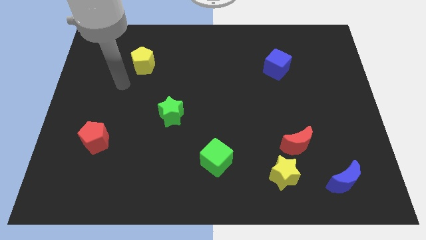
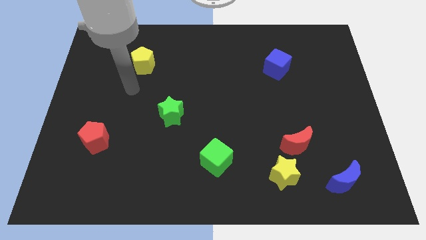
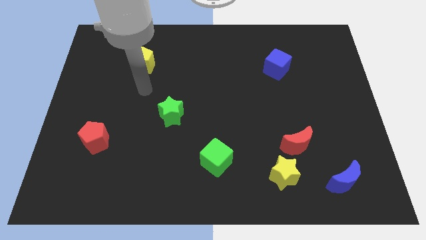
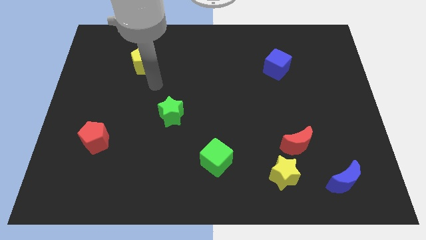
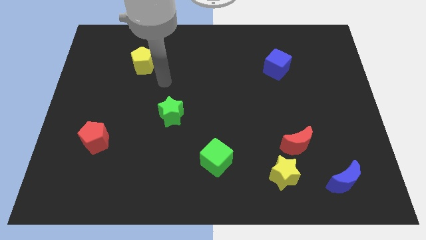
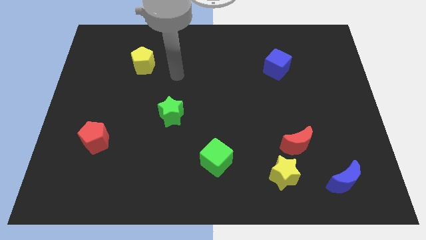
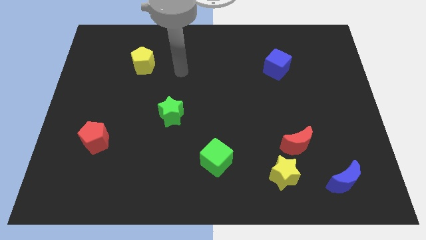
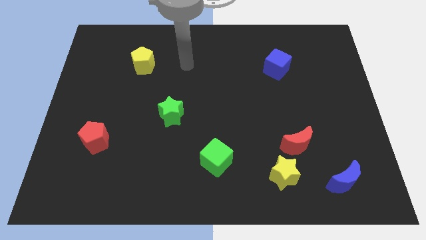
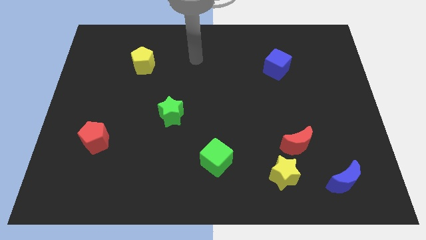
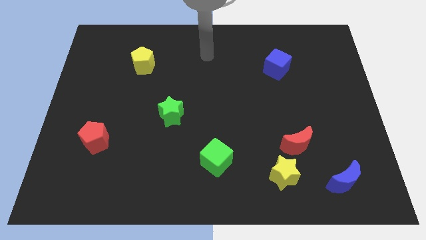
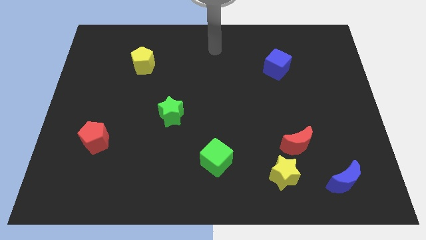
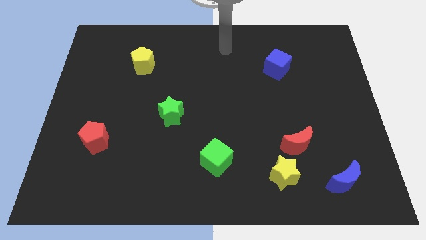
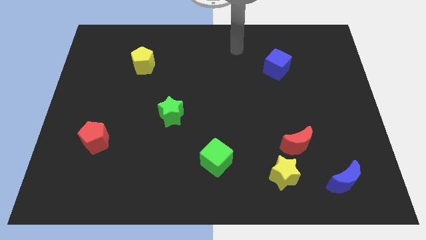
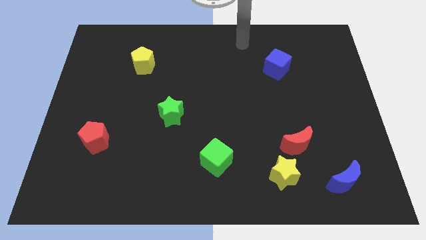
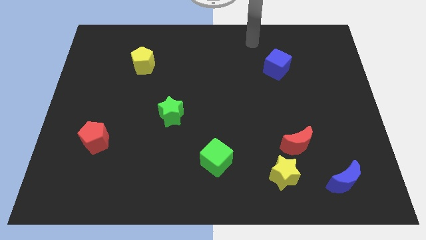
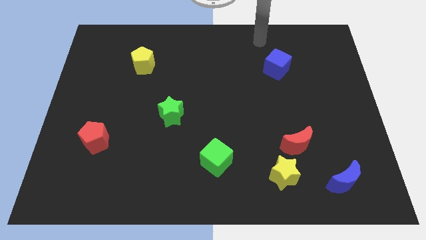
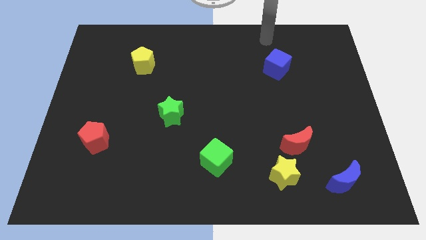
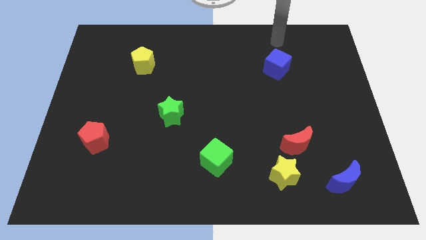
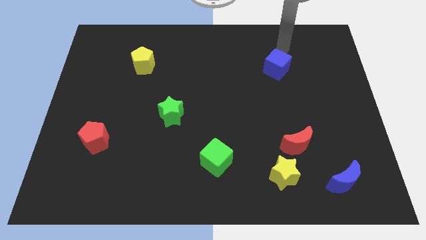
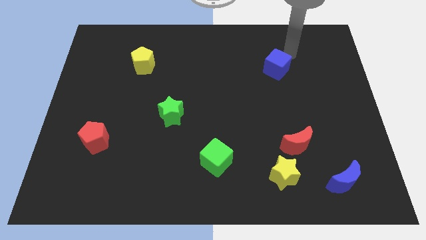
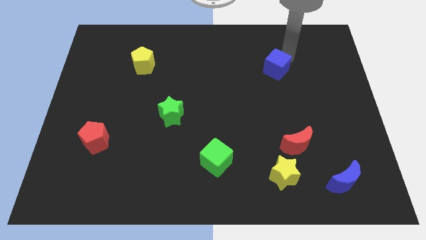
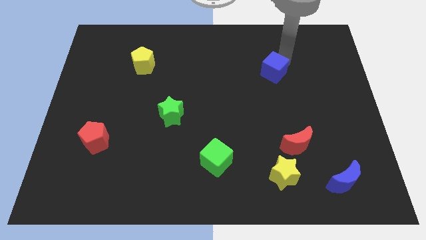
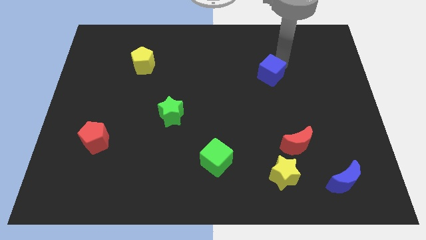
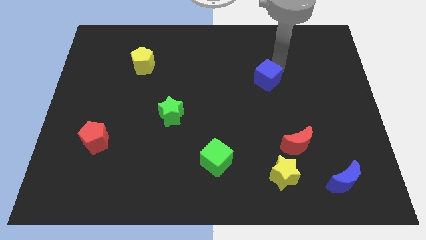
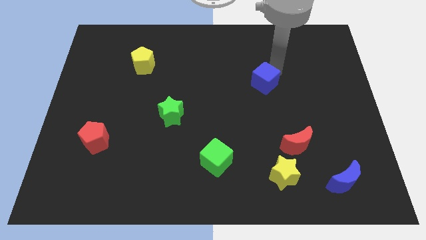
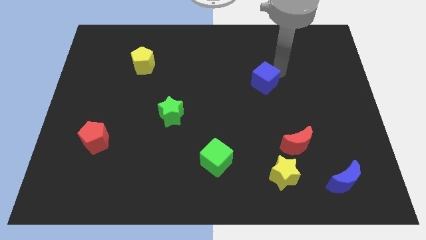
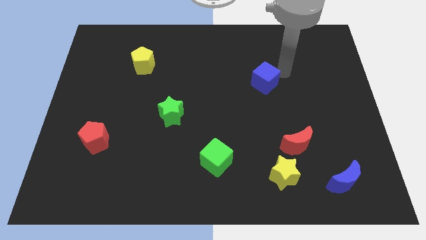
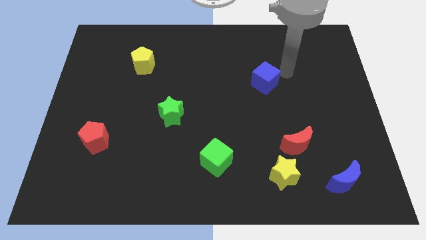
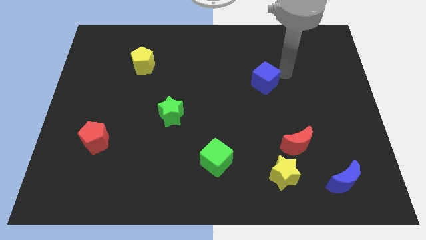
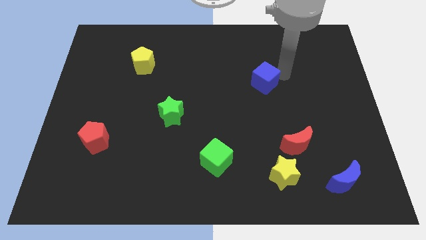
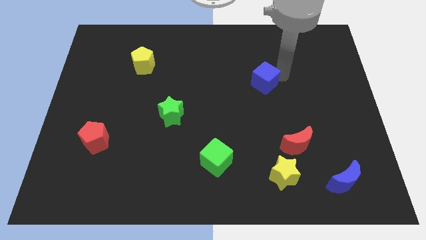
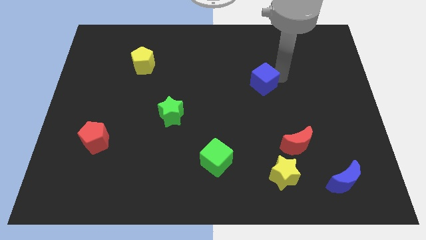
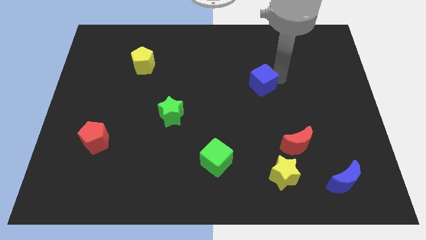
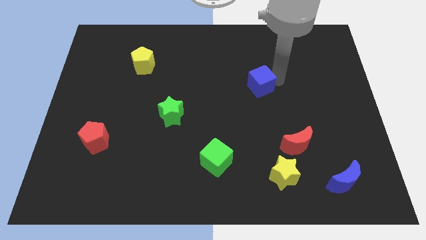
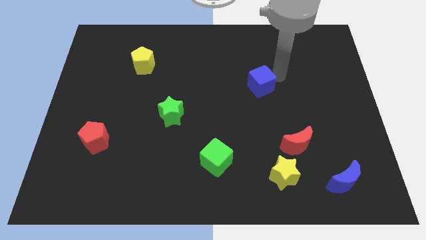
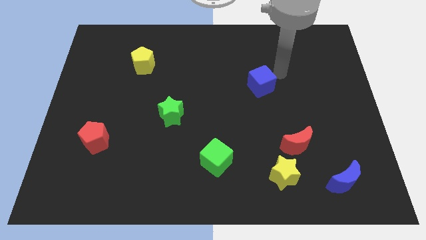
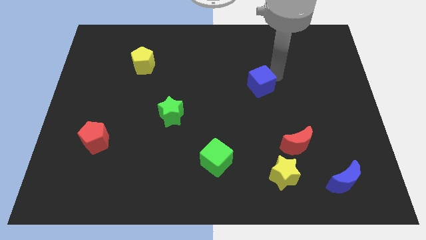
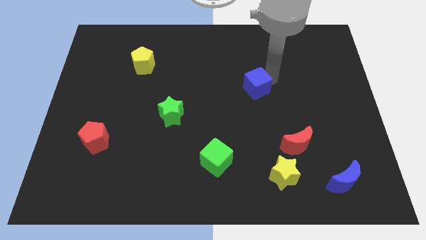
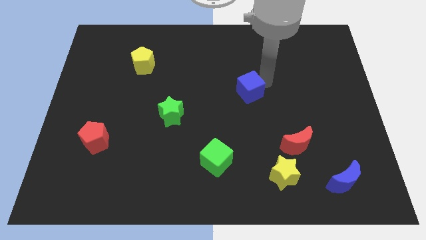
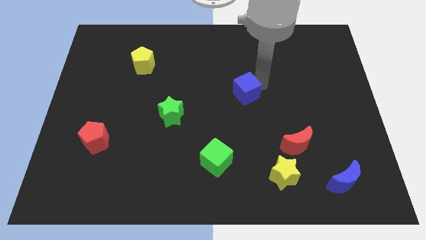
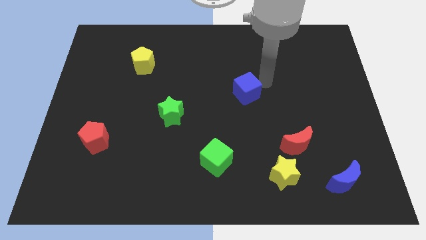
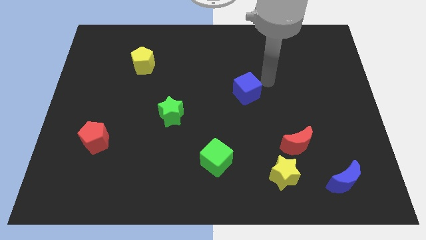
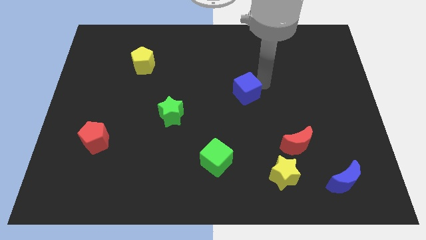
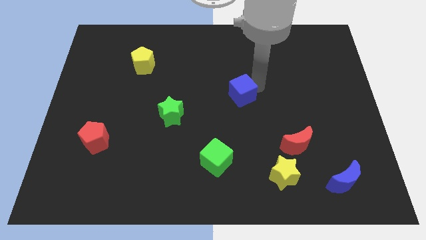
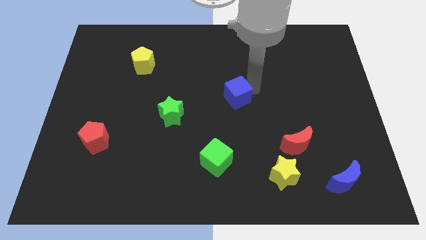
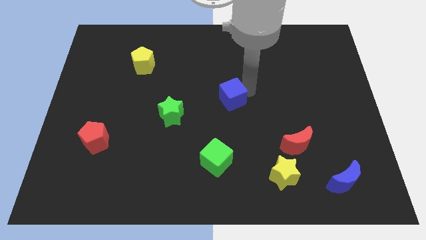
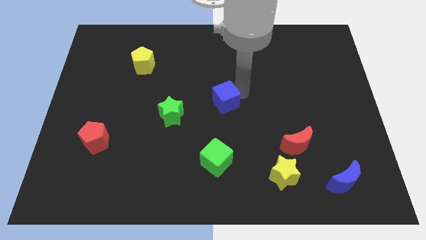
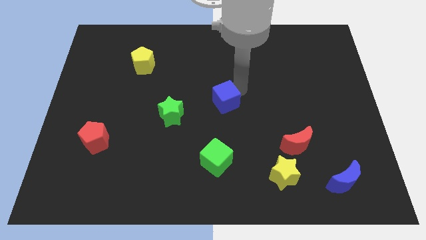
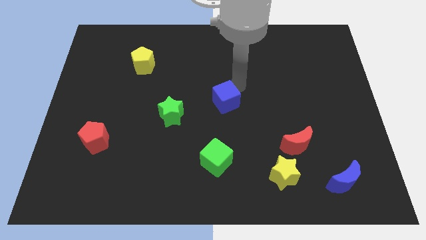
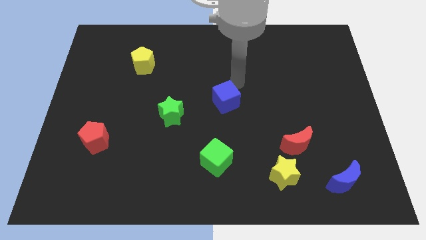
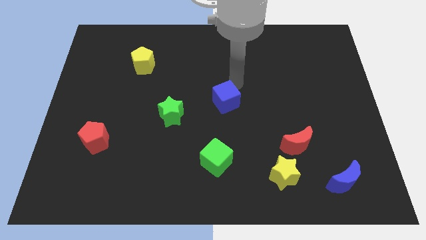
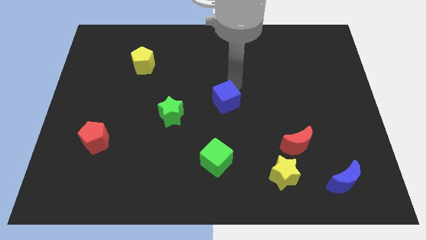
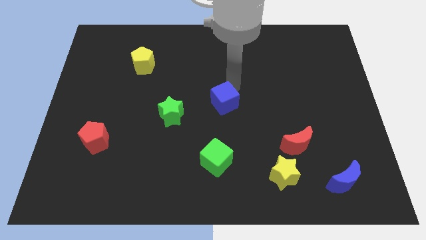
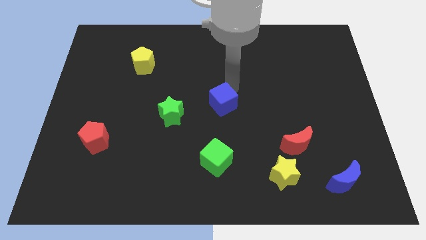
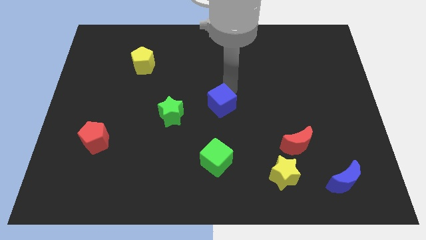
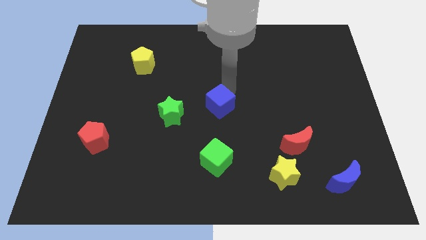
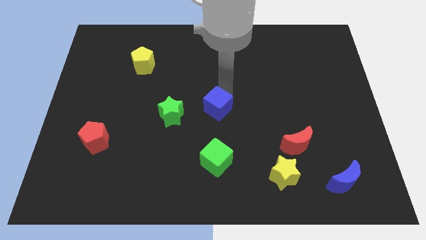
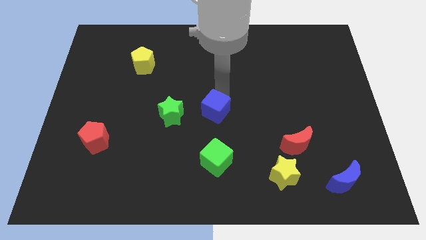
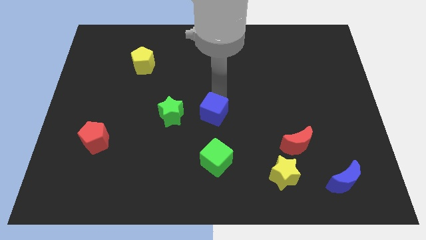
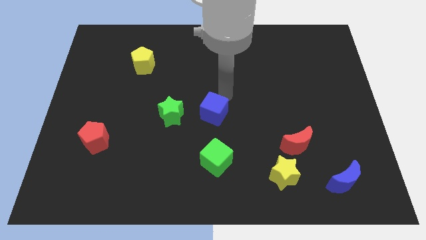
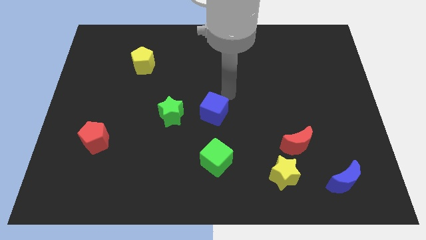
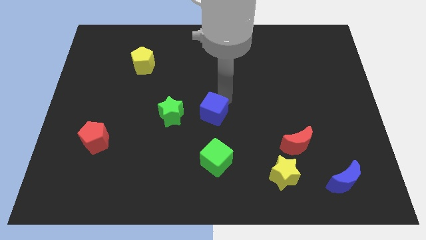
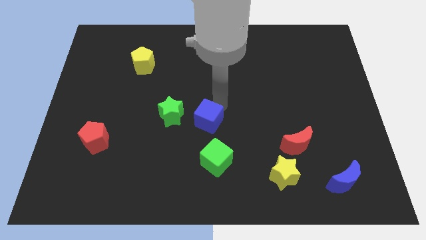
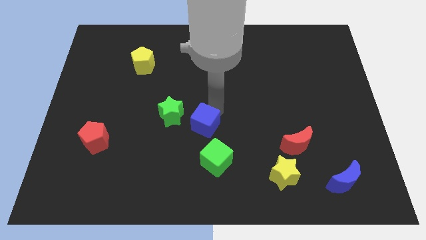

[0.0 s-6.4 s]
move the blue cube to the top left side of the green cube

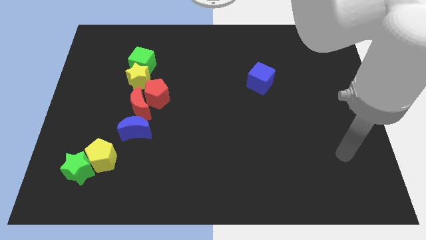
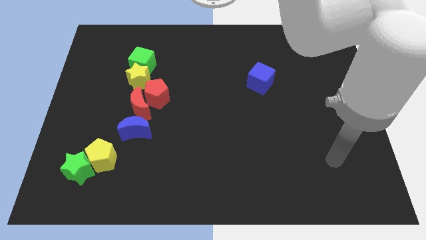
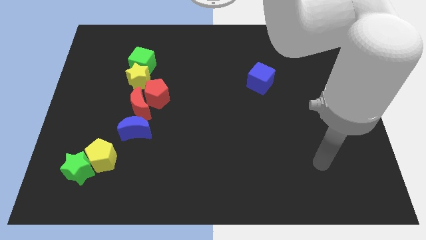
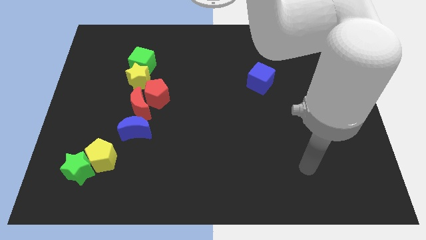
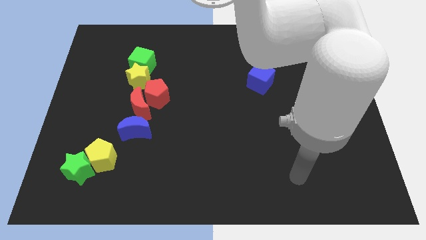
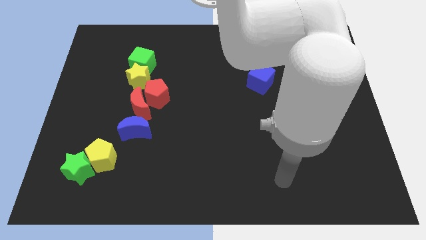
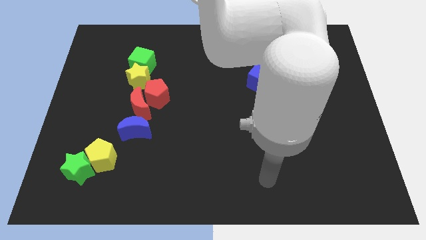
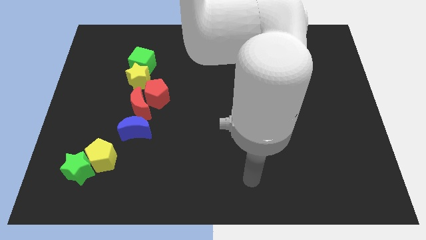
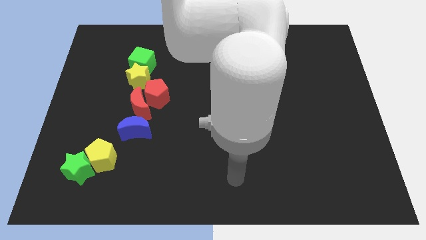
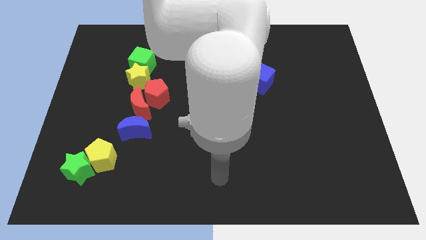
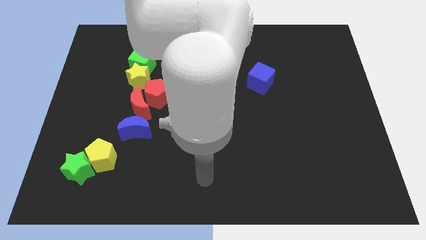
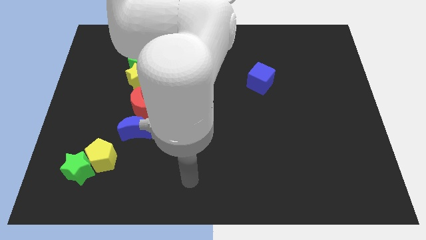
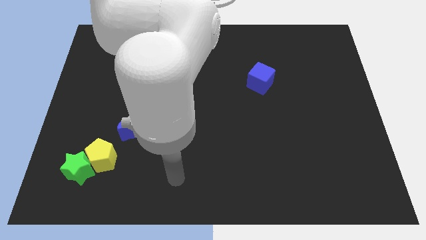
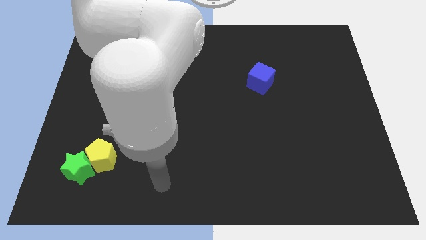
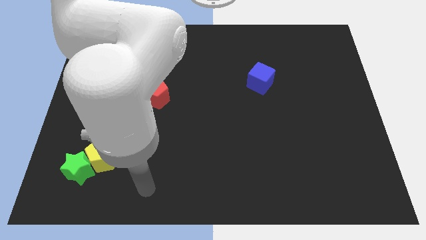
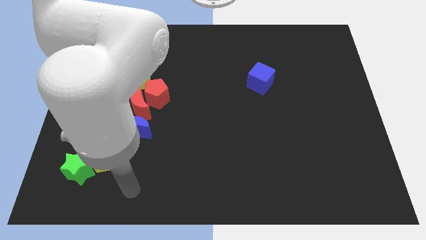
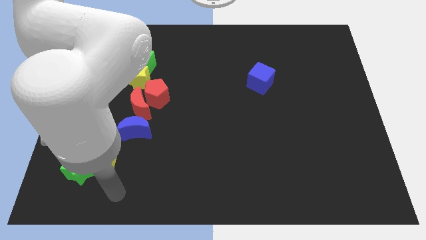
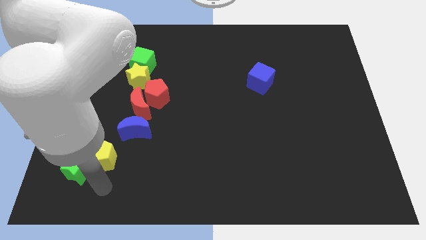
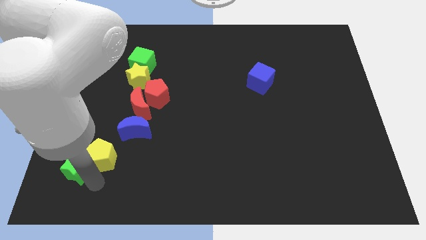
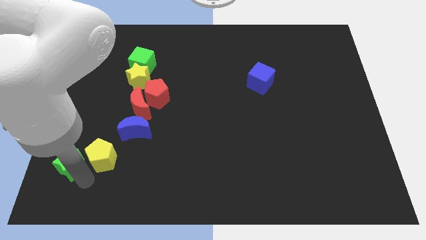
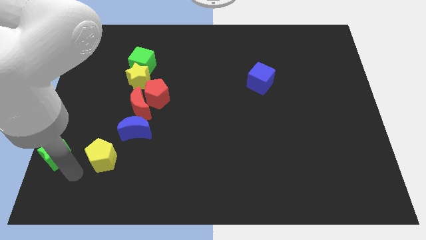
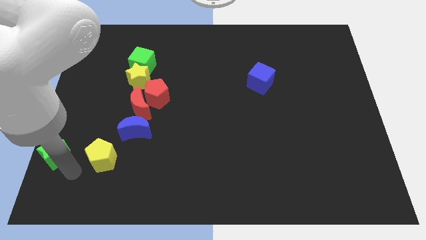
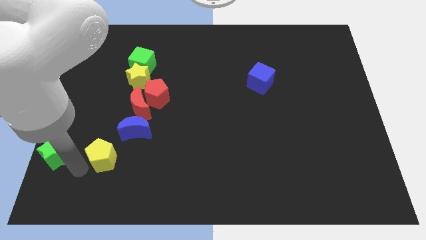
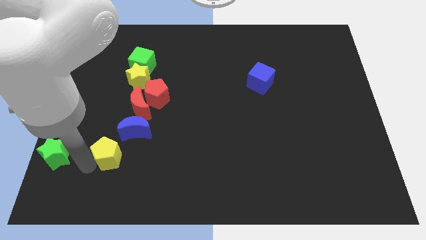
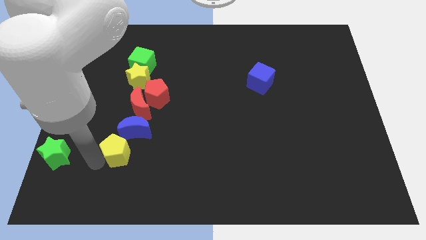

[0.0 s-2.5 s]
slide the yellow pentagon below the red moon
